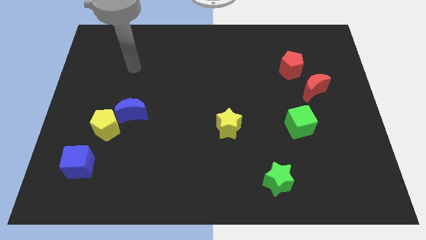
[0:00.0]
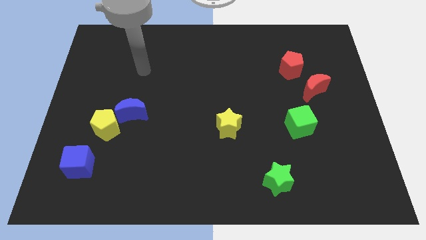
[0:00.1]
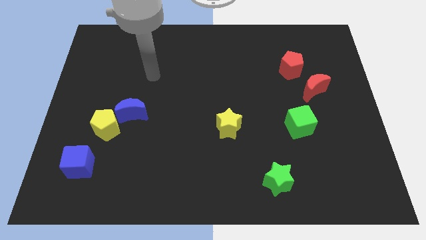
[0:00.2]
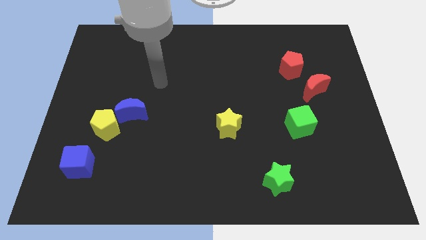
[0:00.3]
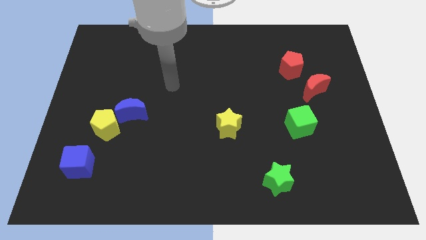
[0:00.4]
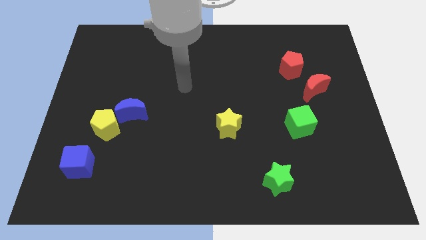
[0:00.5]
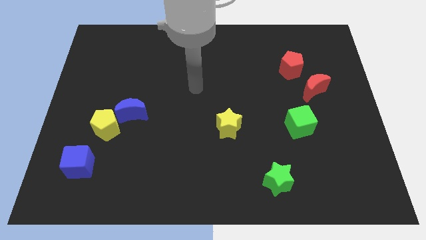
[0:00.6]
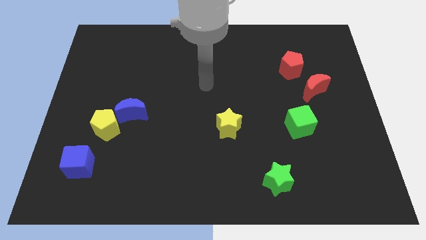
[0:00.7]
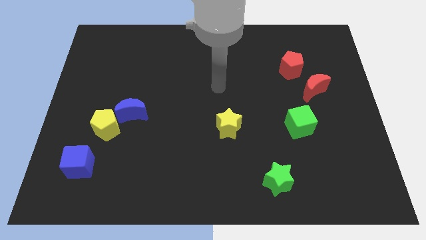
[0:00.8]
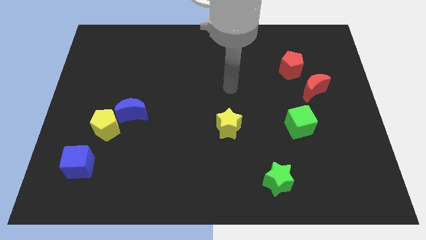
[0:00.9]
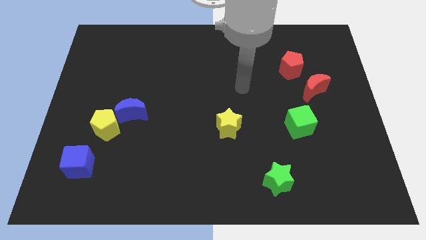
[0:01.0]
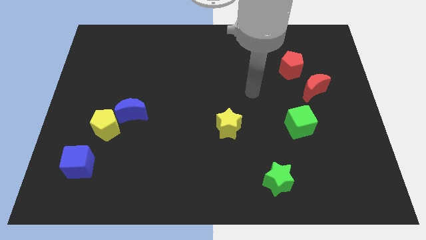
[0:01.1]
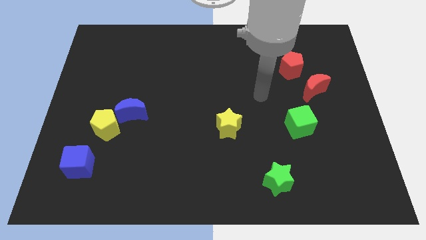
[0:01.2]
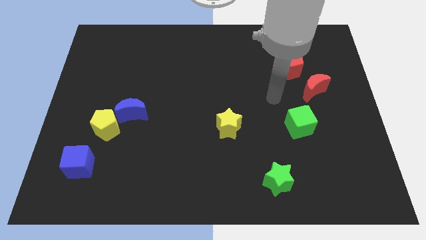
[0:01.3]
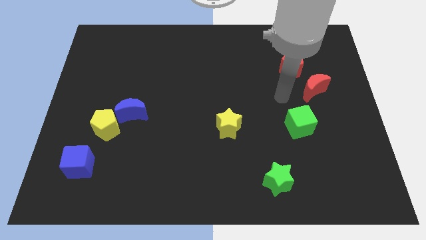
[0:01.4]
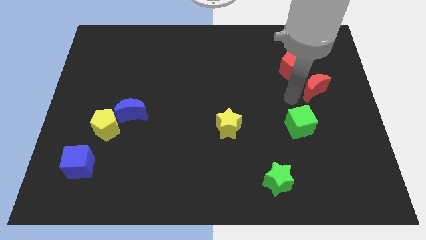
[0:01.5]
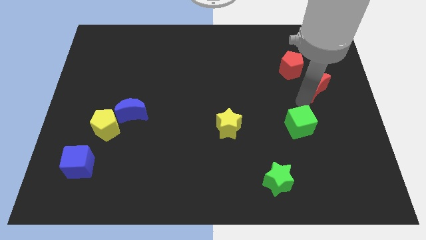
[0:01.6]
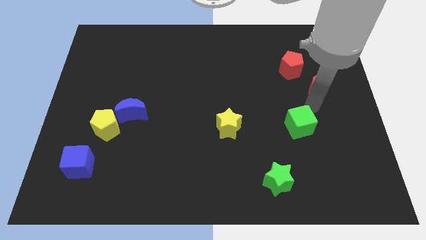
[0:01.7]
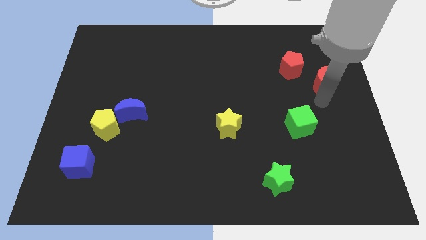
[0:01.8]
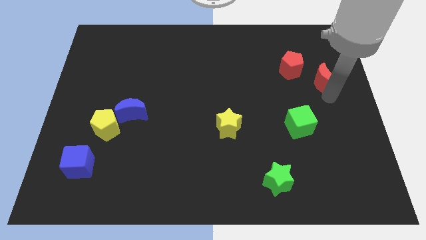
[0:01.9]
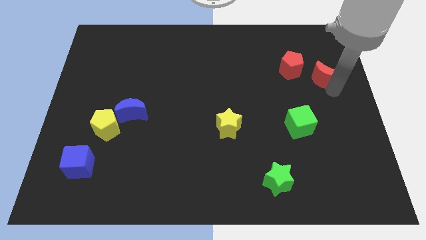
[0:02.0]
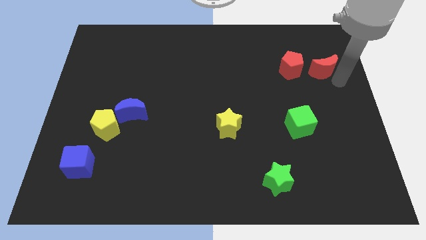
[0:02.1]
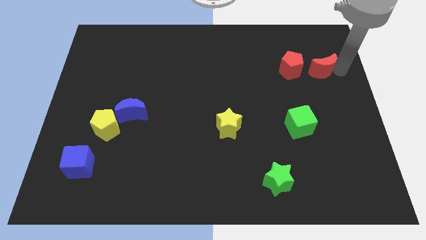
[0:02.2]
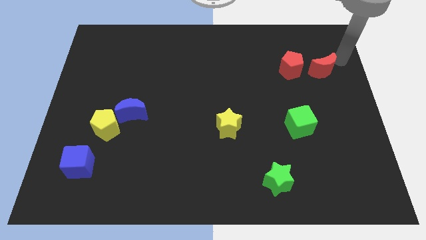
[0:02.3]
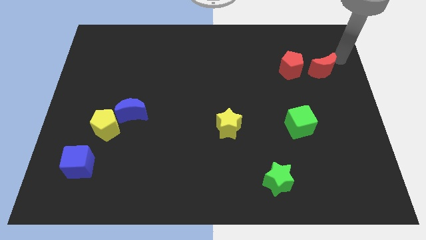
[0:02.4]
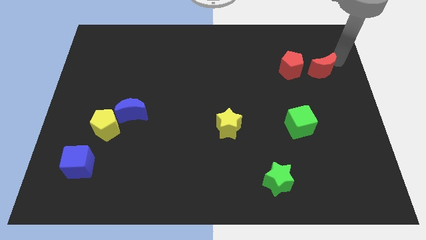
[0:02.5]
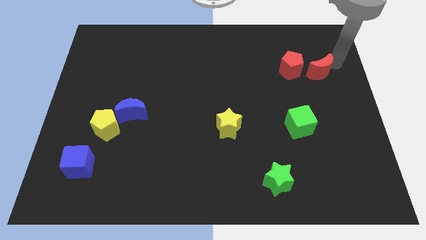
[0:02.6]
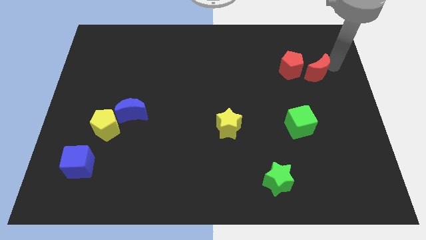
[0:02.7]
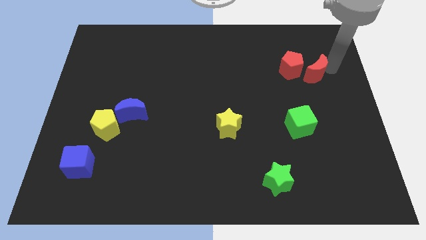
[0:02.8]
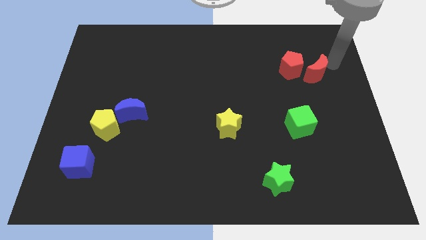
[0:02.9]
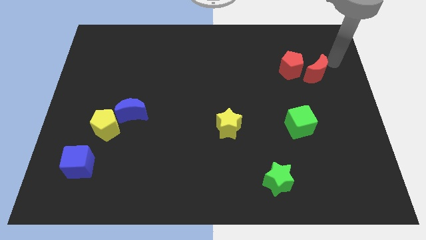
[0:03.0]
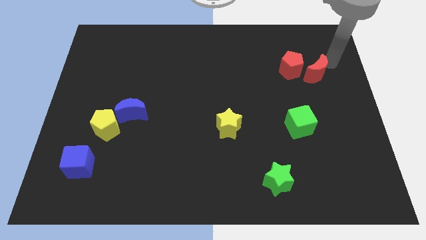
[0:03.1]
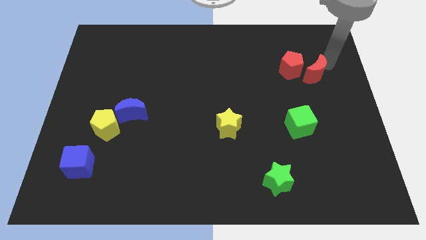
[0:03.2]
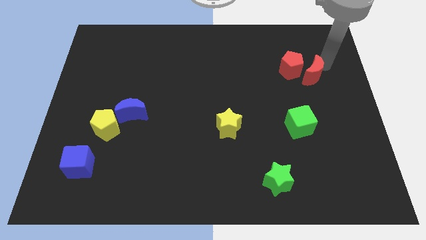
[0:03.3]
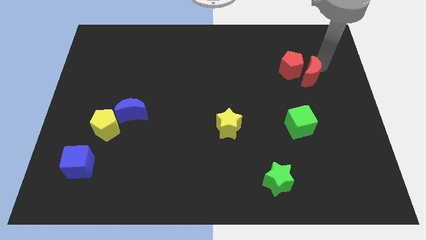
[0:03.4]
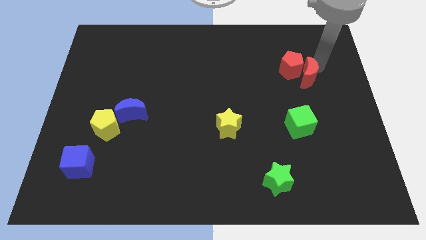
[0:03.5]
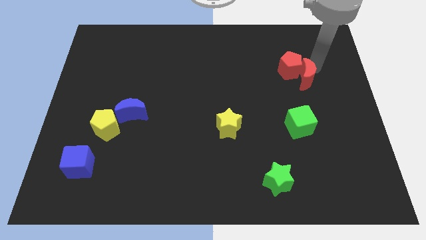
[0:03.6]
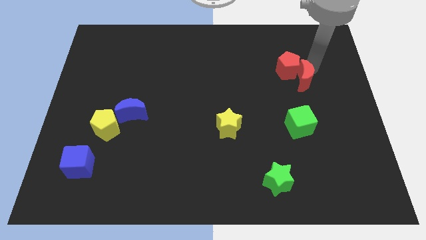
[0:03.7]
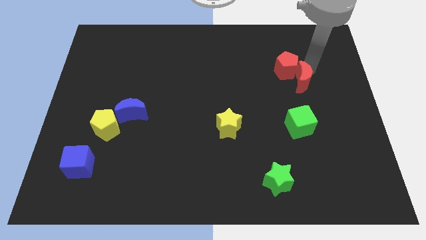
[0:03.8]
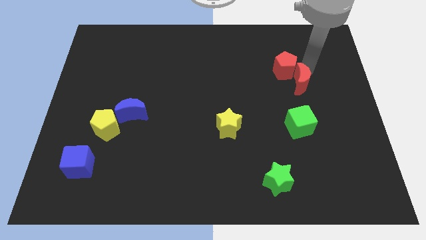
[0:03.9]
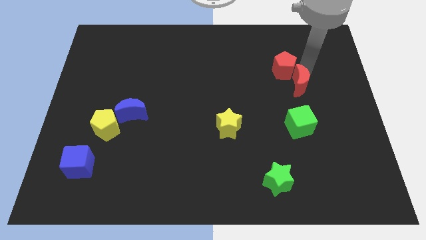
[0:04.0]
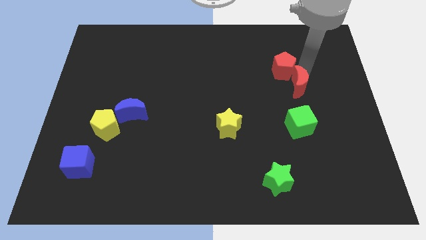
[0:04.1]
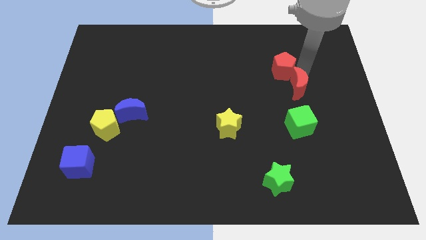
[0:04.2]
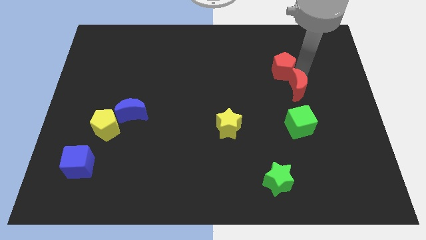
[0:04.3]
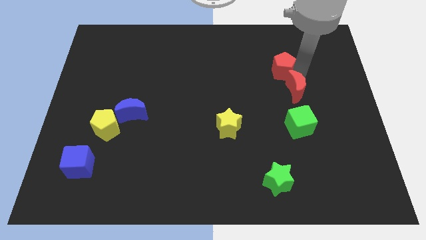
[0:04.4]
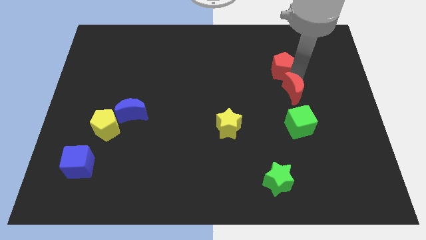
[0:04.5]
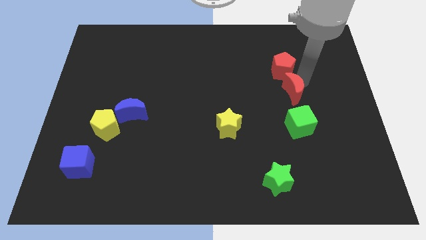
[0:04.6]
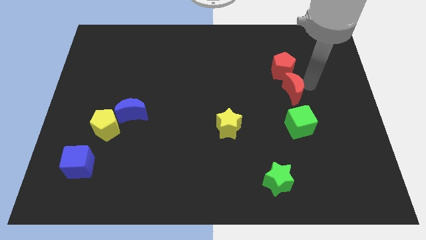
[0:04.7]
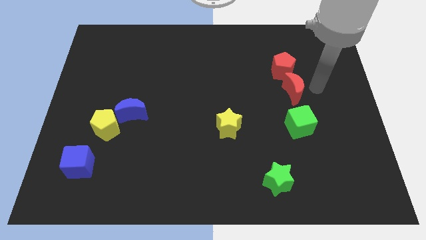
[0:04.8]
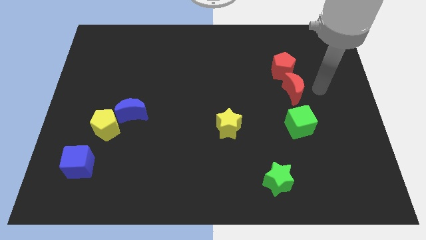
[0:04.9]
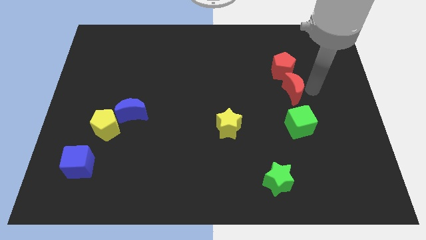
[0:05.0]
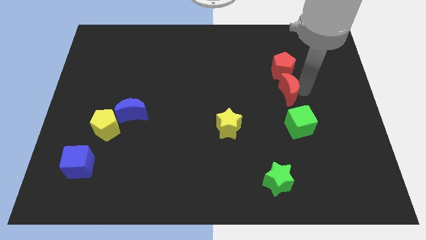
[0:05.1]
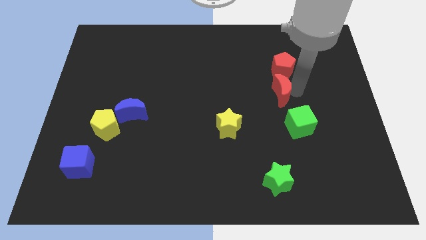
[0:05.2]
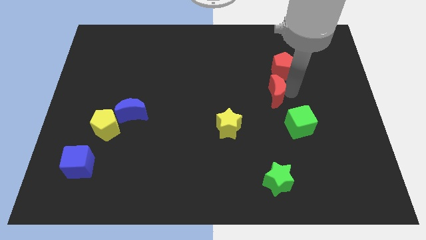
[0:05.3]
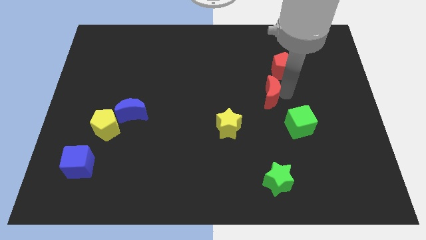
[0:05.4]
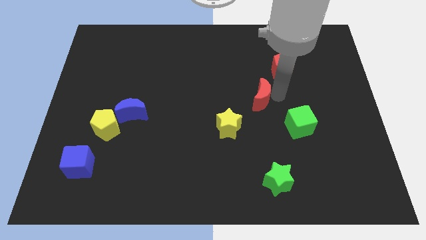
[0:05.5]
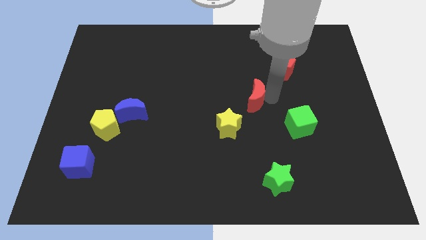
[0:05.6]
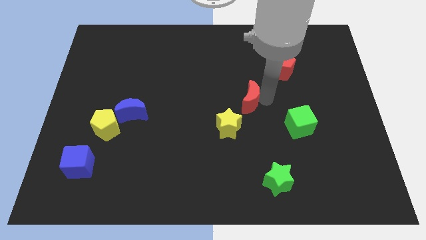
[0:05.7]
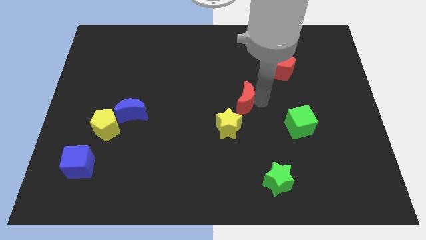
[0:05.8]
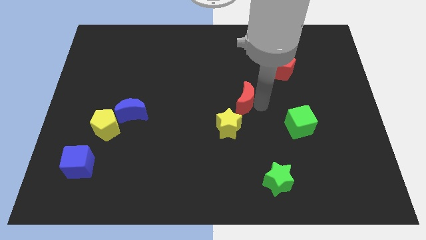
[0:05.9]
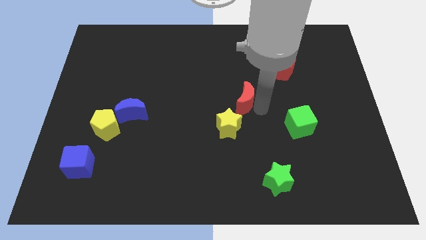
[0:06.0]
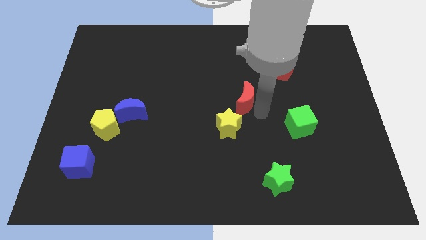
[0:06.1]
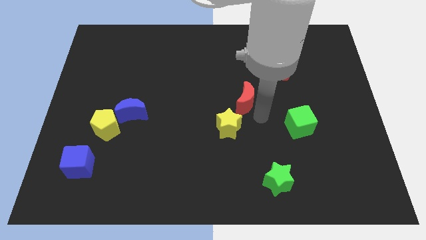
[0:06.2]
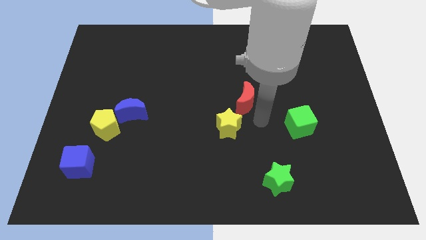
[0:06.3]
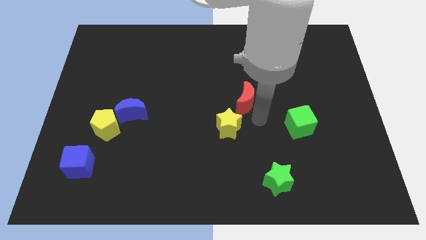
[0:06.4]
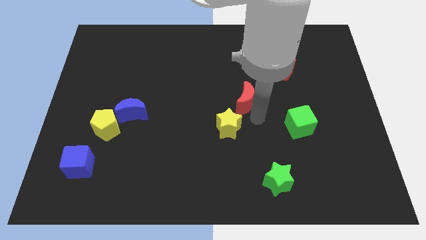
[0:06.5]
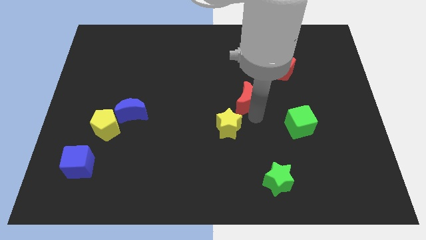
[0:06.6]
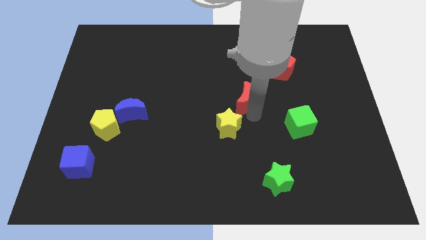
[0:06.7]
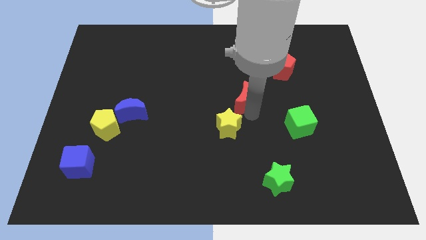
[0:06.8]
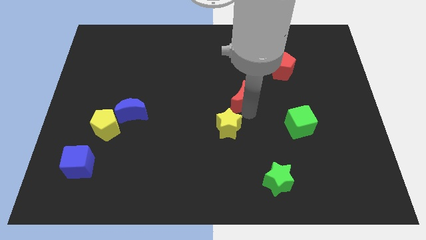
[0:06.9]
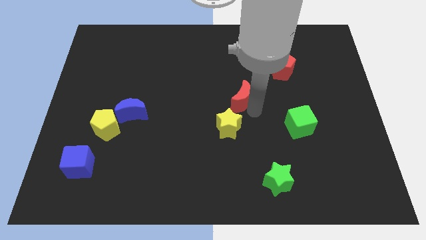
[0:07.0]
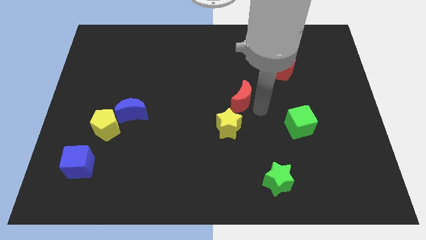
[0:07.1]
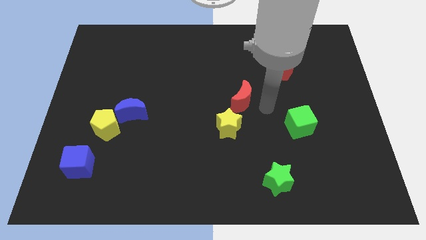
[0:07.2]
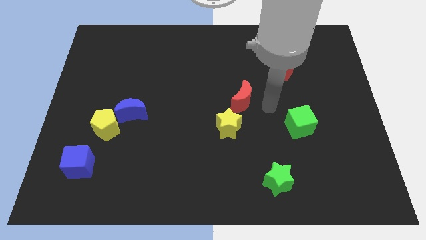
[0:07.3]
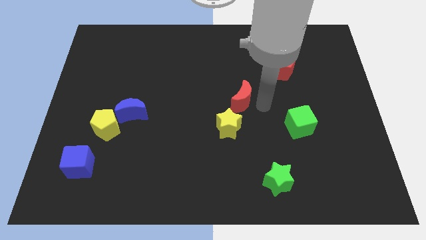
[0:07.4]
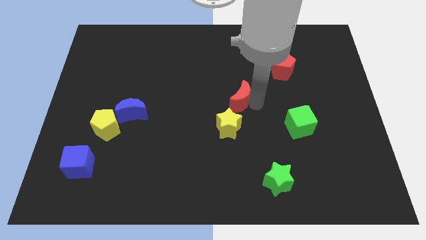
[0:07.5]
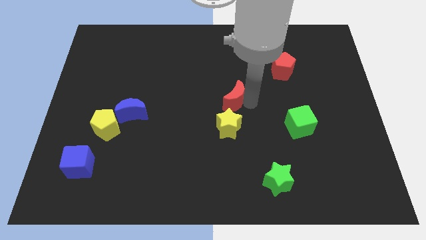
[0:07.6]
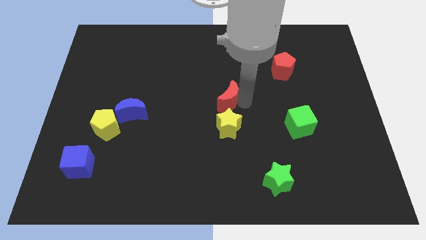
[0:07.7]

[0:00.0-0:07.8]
slide the red moon to the left

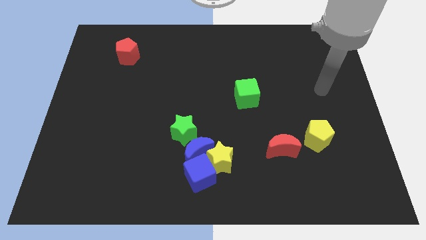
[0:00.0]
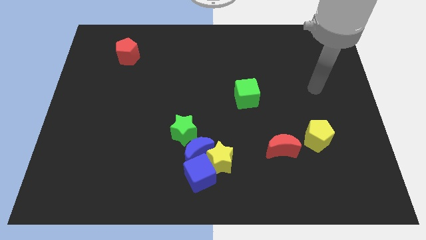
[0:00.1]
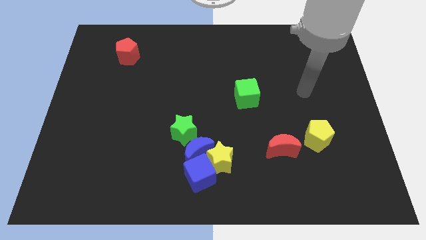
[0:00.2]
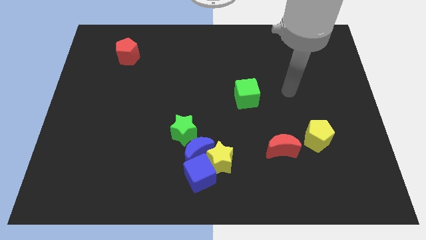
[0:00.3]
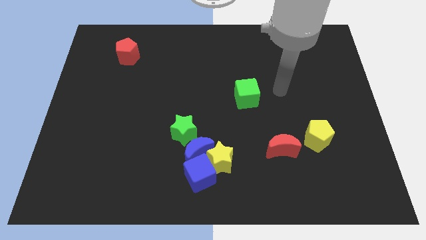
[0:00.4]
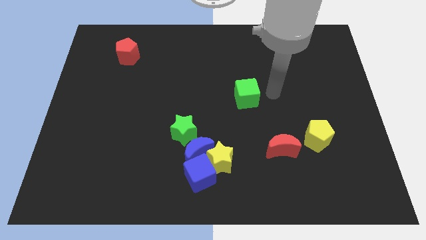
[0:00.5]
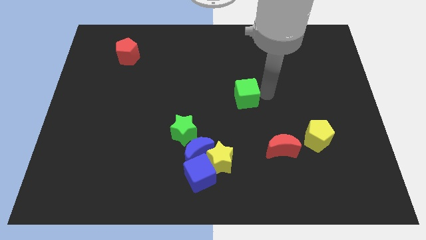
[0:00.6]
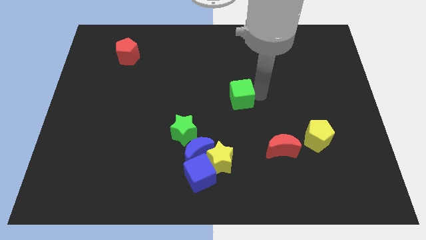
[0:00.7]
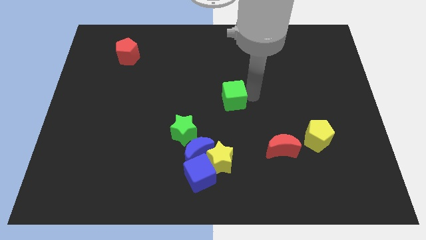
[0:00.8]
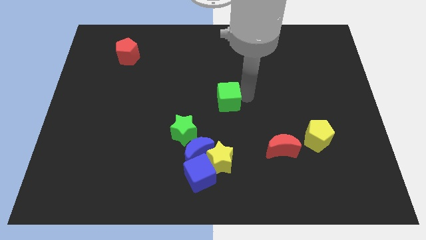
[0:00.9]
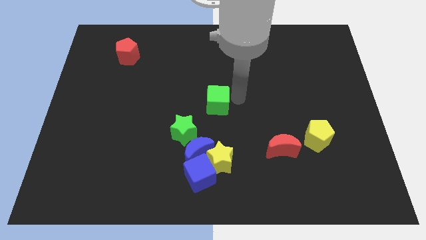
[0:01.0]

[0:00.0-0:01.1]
push the green cube a little bit to the left
